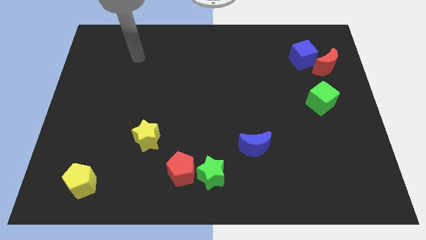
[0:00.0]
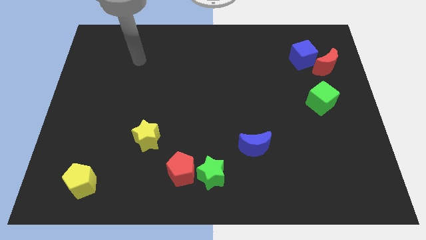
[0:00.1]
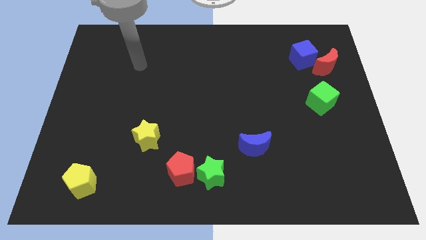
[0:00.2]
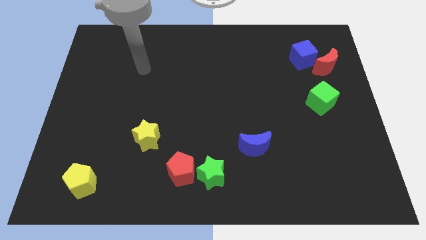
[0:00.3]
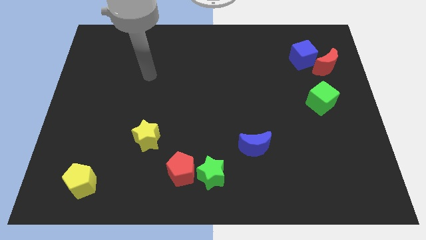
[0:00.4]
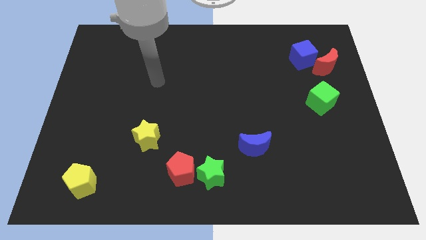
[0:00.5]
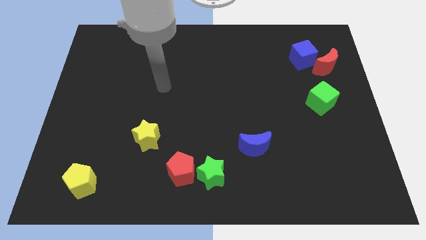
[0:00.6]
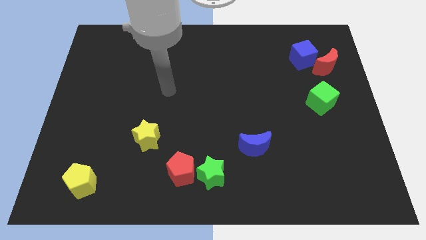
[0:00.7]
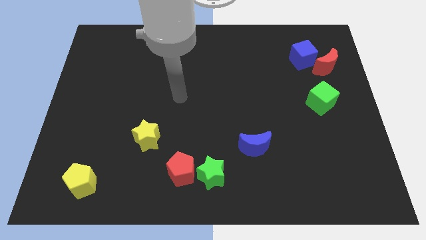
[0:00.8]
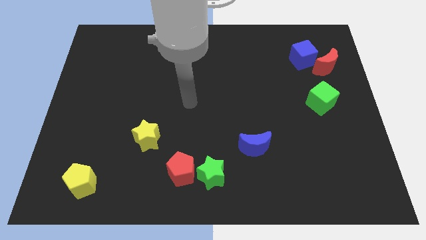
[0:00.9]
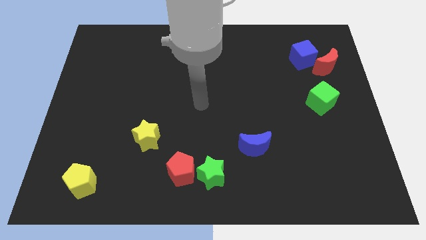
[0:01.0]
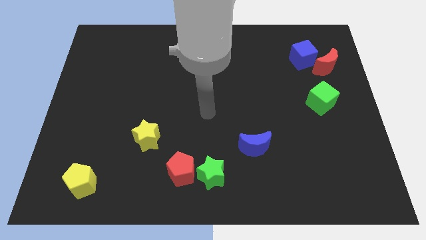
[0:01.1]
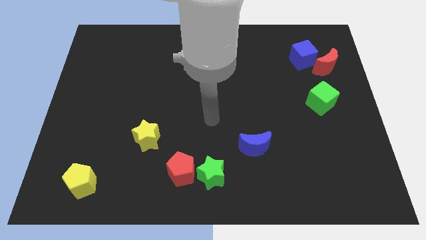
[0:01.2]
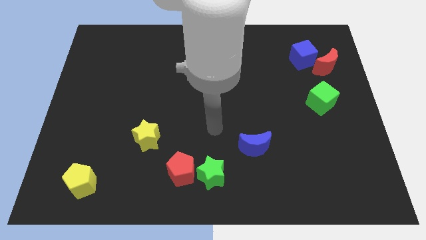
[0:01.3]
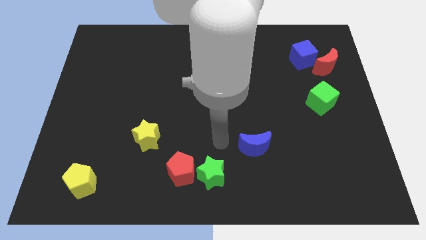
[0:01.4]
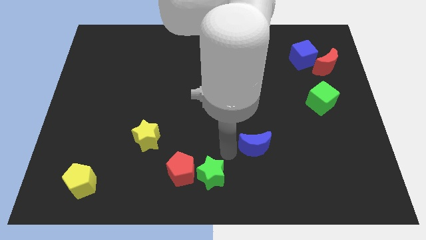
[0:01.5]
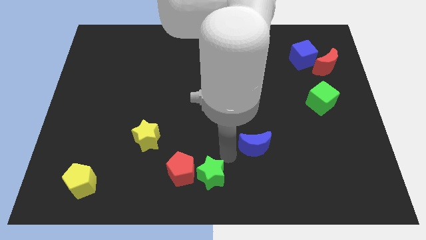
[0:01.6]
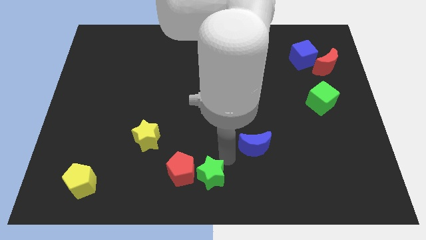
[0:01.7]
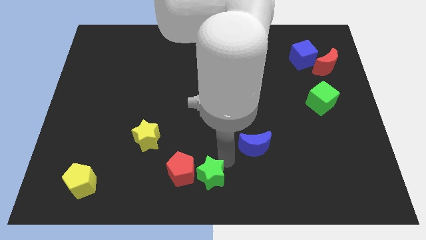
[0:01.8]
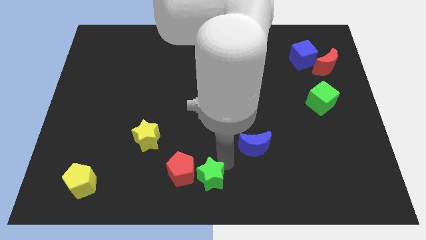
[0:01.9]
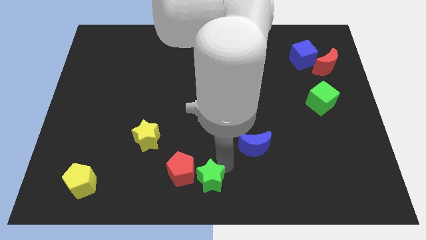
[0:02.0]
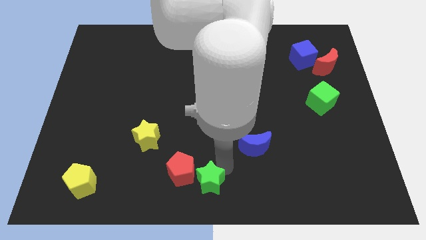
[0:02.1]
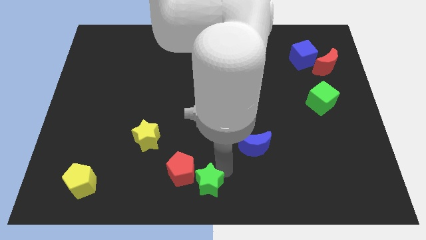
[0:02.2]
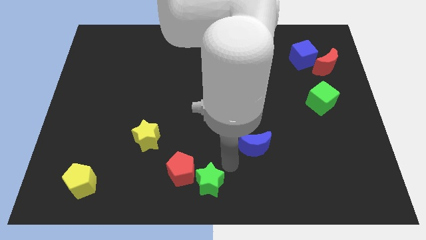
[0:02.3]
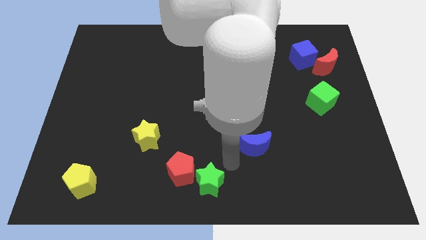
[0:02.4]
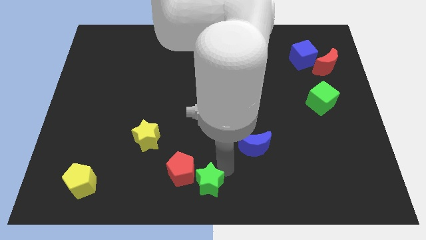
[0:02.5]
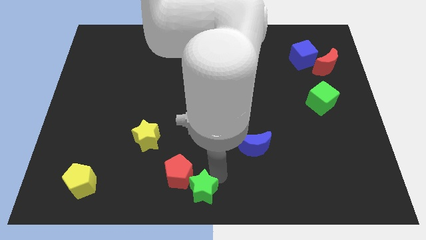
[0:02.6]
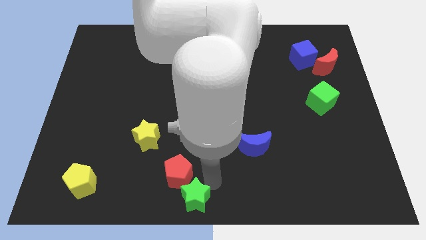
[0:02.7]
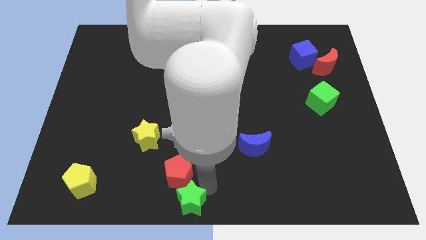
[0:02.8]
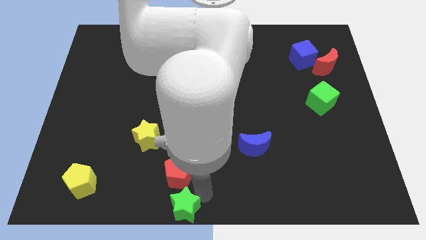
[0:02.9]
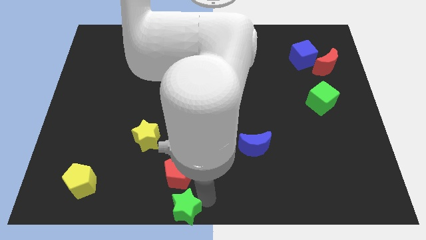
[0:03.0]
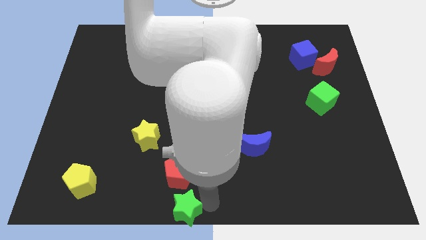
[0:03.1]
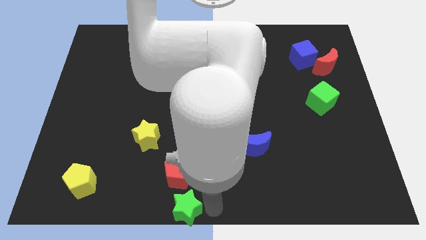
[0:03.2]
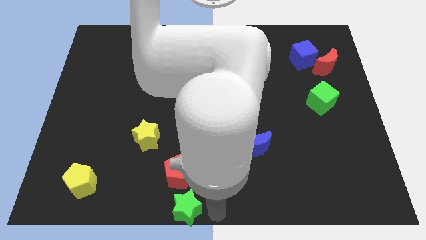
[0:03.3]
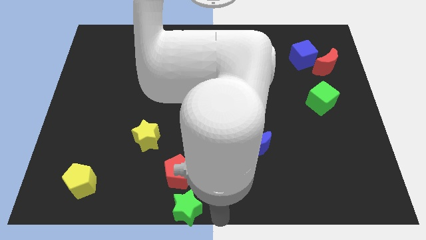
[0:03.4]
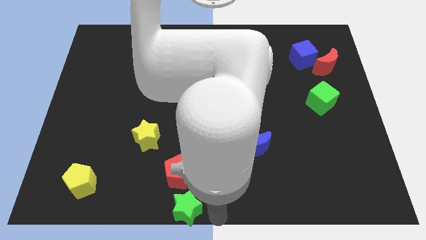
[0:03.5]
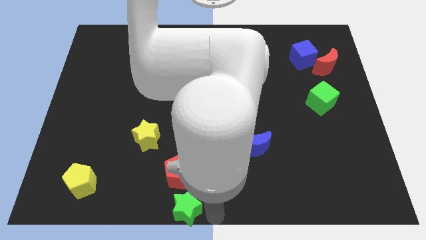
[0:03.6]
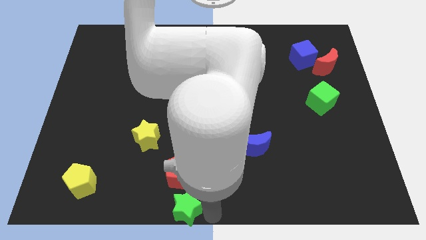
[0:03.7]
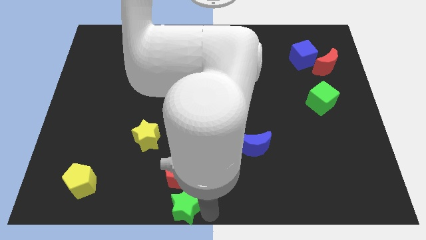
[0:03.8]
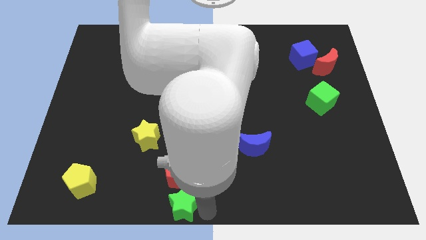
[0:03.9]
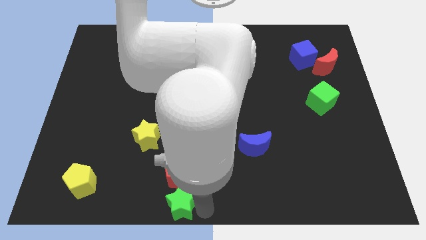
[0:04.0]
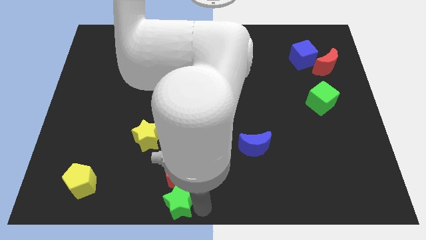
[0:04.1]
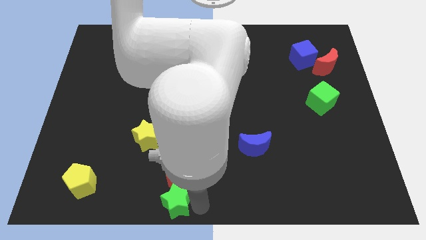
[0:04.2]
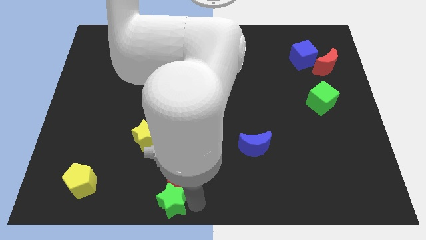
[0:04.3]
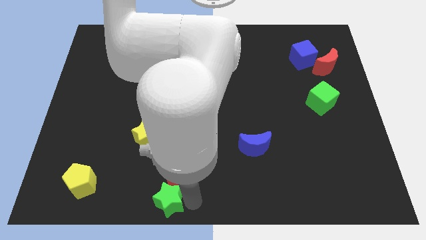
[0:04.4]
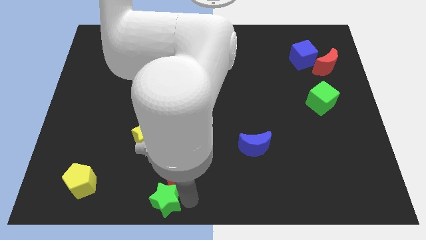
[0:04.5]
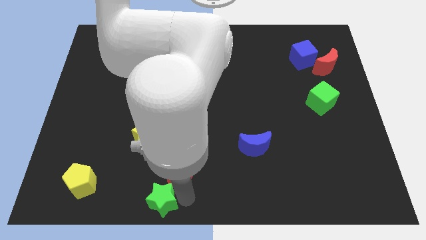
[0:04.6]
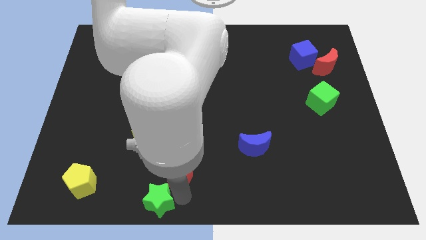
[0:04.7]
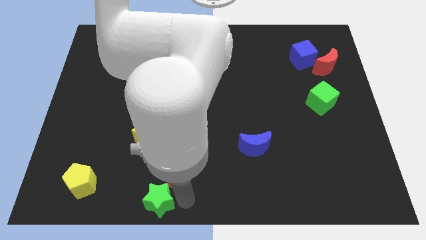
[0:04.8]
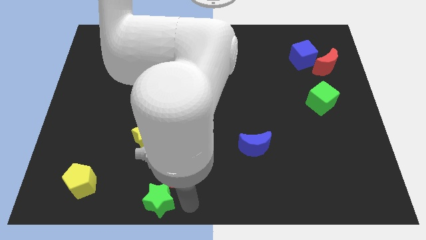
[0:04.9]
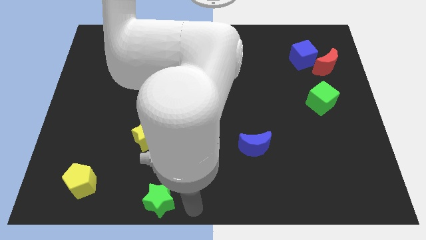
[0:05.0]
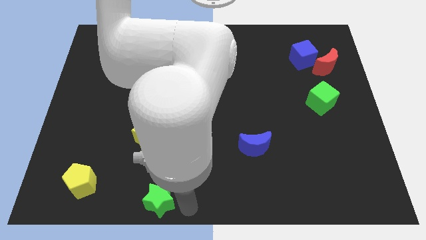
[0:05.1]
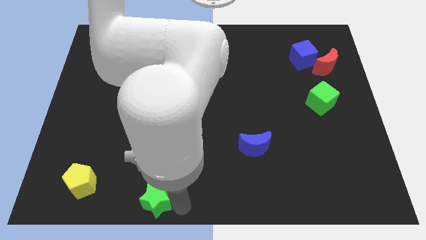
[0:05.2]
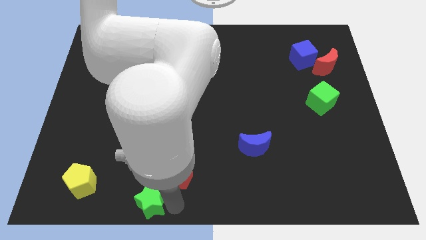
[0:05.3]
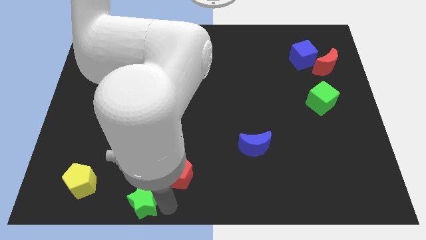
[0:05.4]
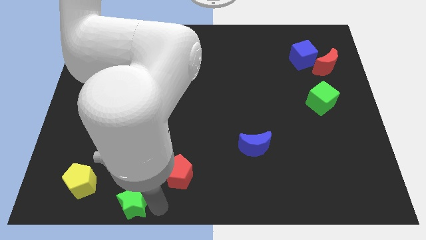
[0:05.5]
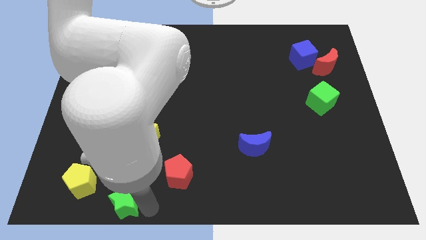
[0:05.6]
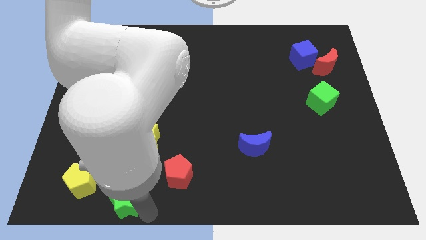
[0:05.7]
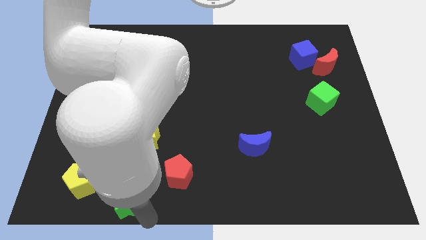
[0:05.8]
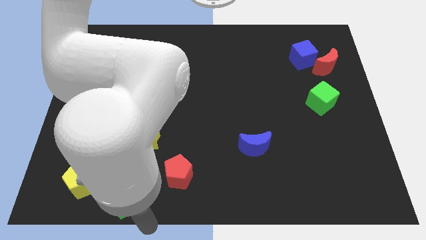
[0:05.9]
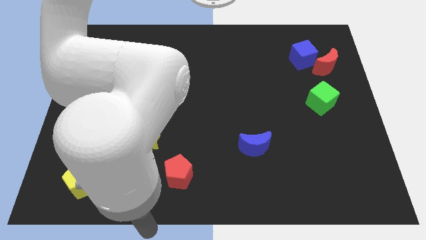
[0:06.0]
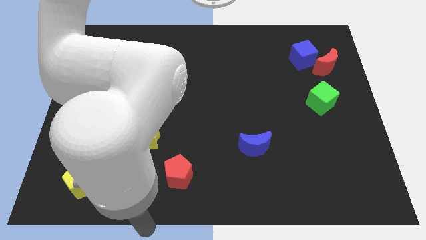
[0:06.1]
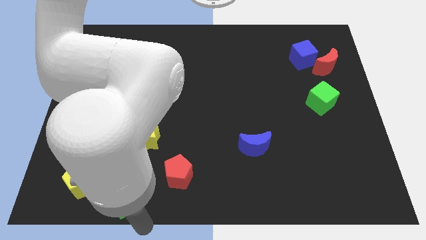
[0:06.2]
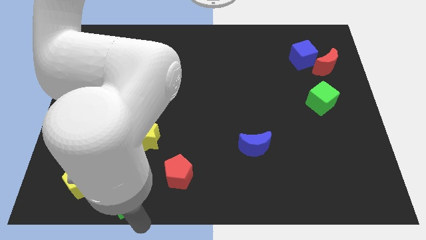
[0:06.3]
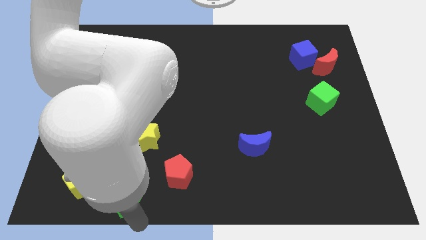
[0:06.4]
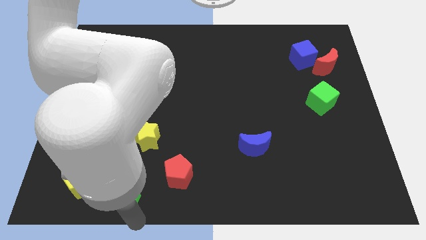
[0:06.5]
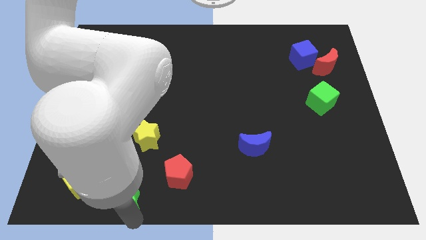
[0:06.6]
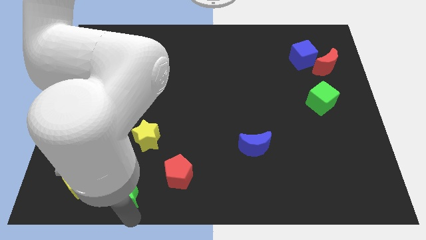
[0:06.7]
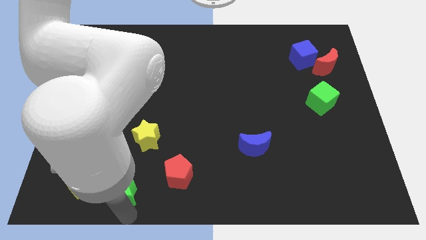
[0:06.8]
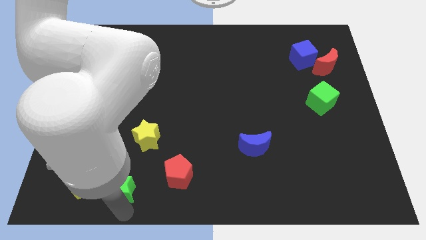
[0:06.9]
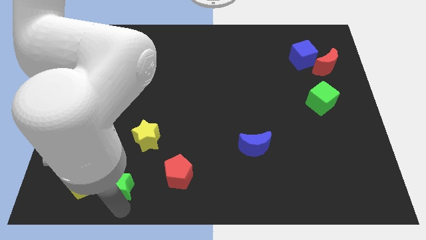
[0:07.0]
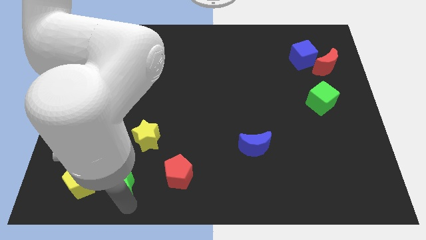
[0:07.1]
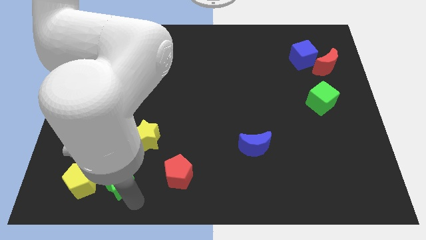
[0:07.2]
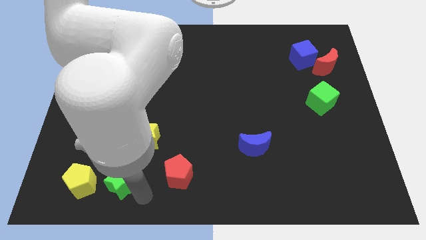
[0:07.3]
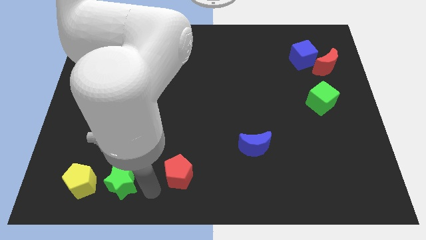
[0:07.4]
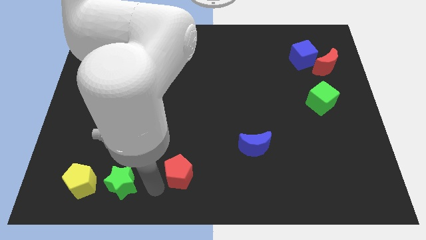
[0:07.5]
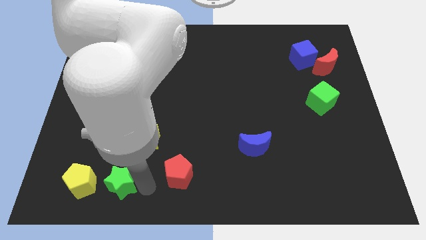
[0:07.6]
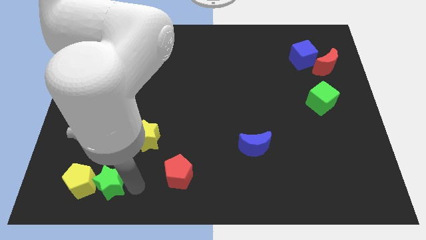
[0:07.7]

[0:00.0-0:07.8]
move the green star close to the yellow pentagon

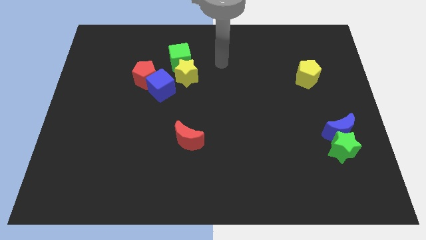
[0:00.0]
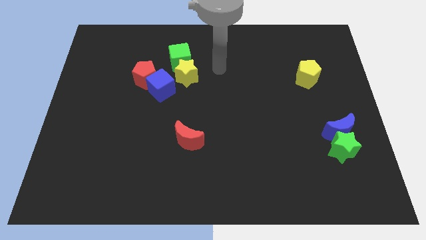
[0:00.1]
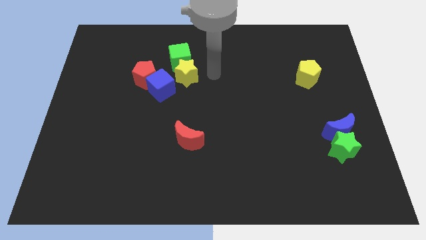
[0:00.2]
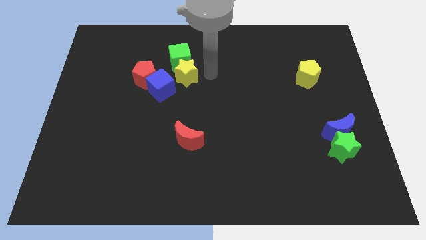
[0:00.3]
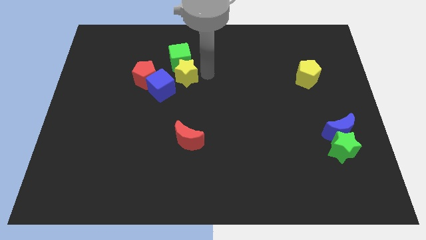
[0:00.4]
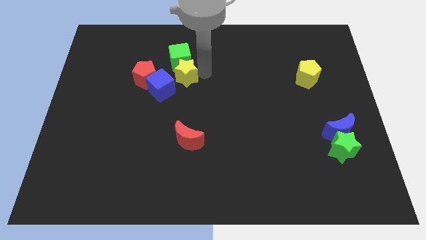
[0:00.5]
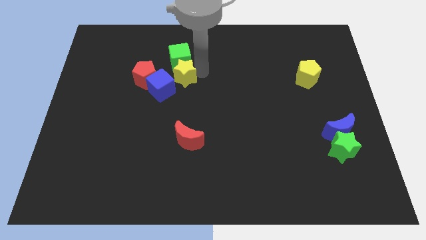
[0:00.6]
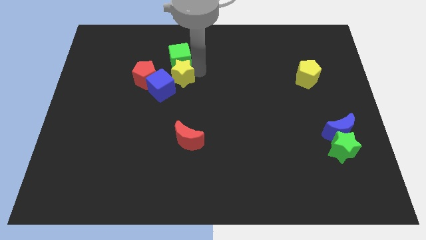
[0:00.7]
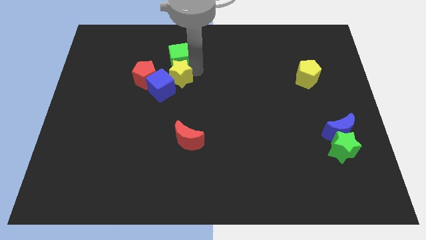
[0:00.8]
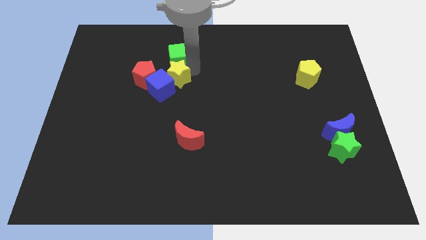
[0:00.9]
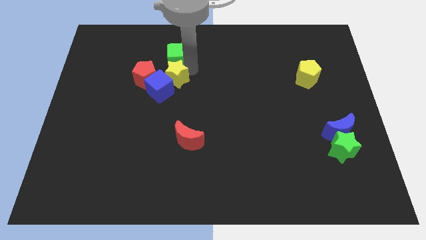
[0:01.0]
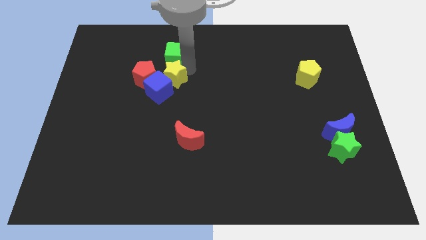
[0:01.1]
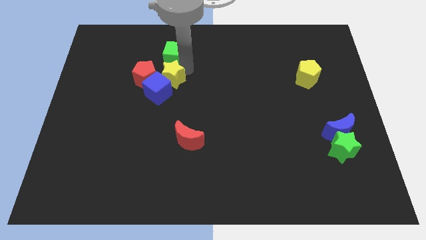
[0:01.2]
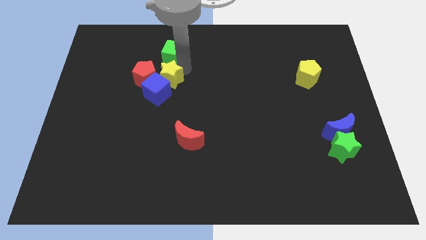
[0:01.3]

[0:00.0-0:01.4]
move the yellow star towards the red pentagon
